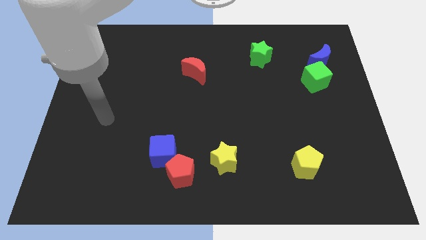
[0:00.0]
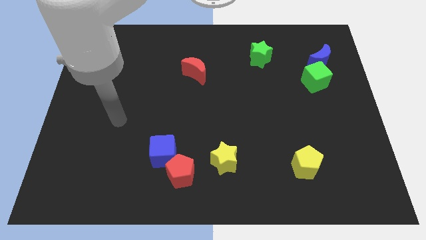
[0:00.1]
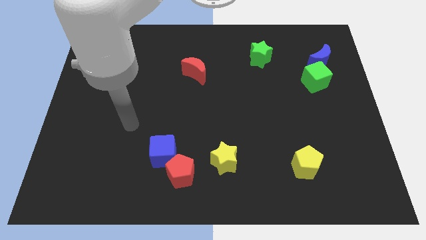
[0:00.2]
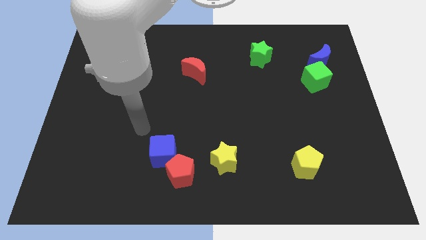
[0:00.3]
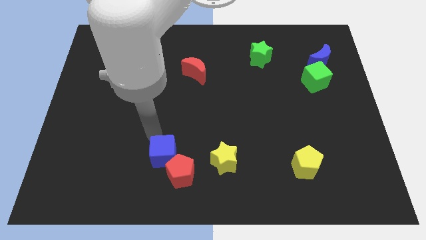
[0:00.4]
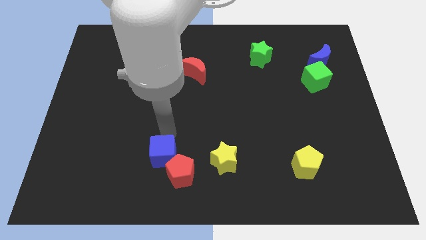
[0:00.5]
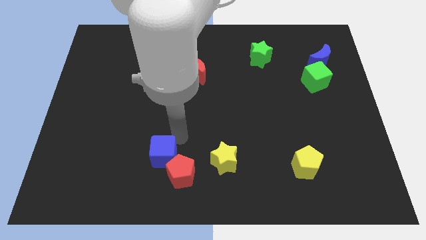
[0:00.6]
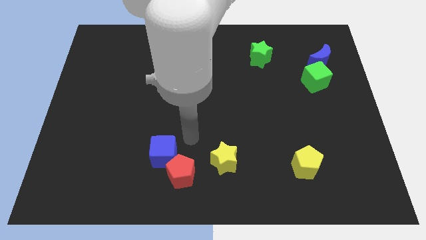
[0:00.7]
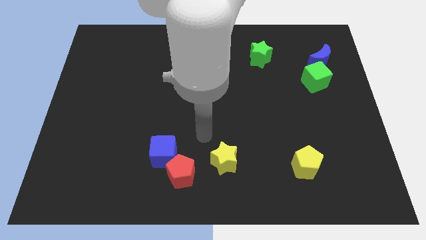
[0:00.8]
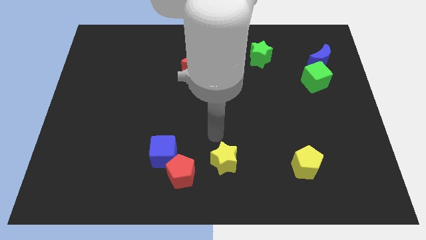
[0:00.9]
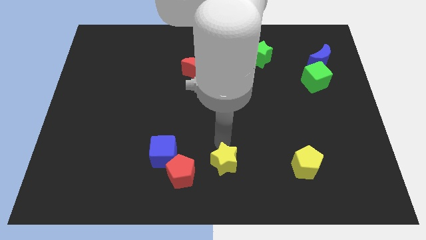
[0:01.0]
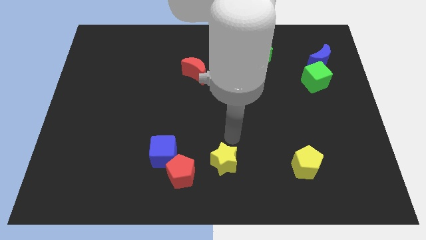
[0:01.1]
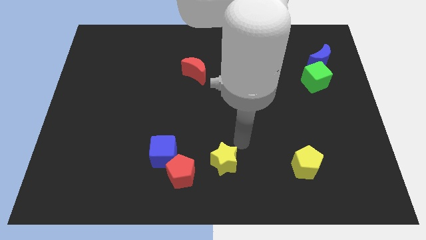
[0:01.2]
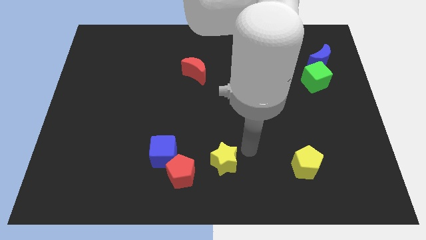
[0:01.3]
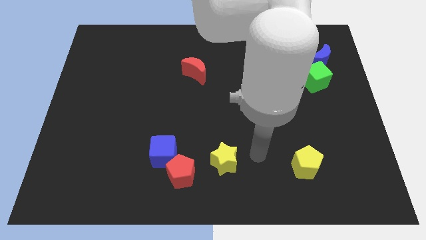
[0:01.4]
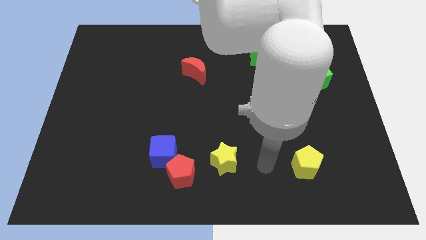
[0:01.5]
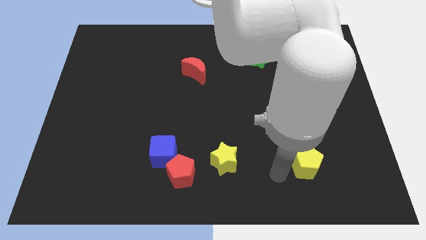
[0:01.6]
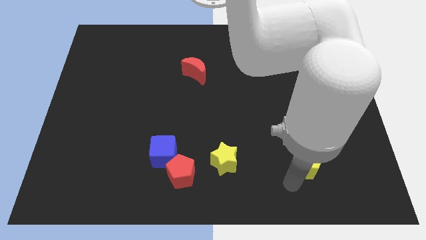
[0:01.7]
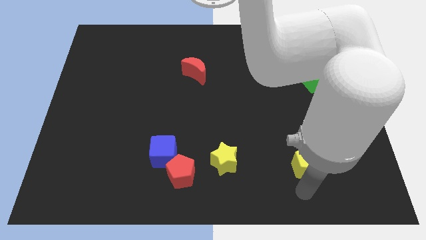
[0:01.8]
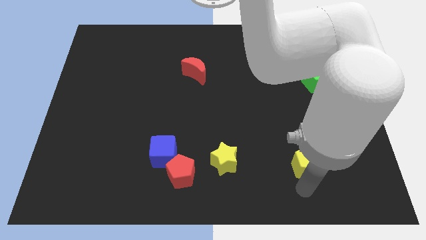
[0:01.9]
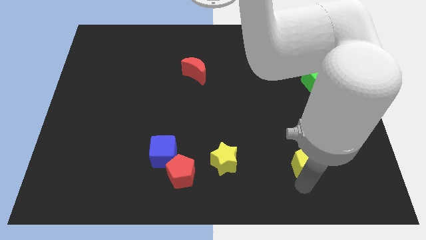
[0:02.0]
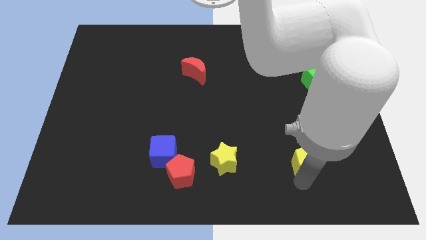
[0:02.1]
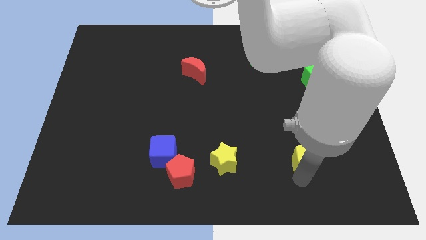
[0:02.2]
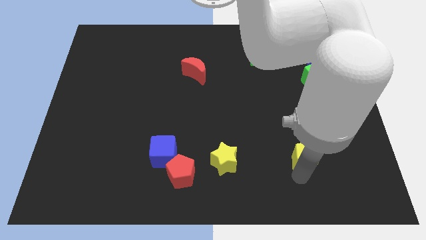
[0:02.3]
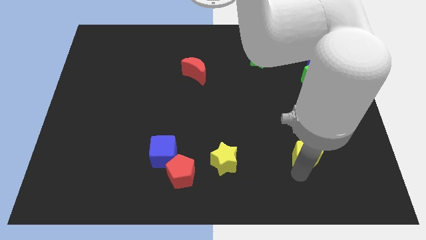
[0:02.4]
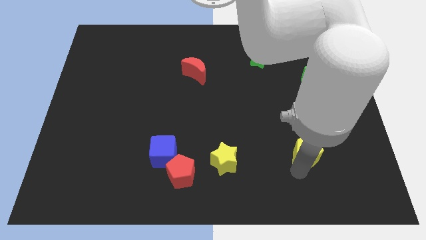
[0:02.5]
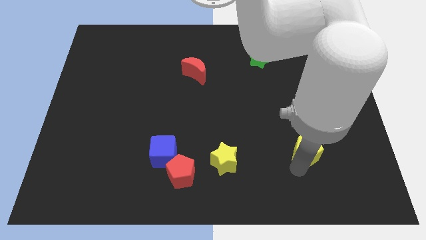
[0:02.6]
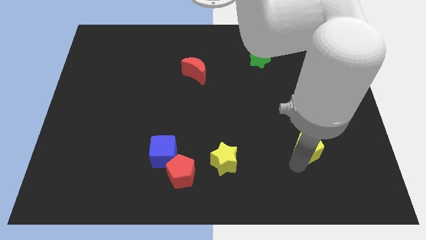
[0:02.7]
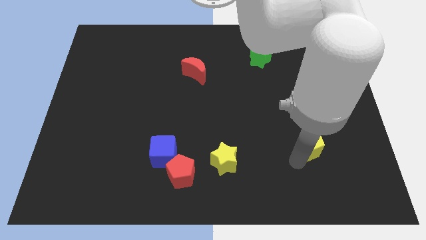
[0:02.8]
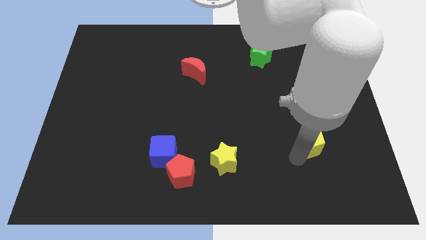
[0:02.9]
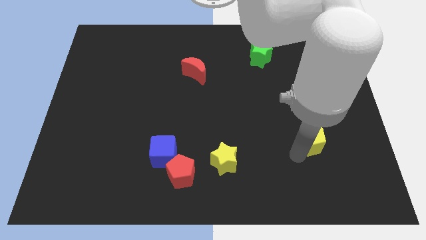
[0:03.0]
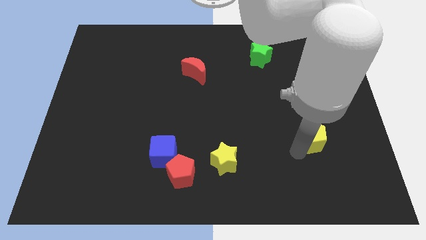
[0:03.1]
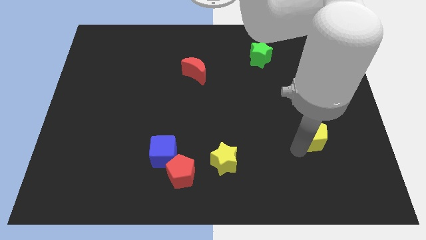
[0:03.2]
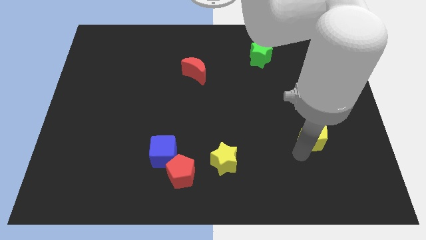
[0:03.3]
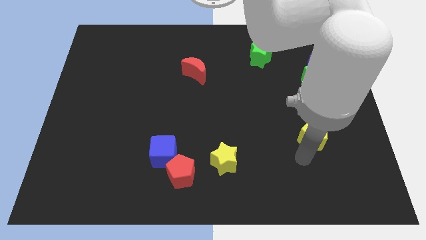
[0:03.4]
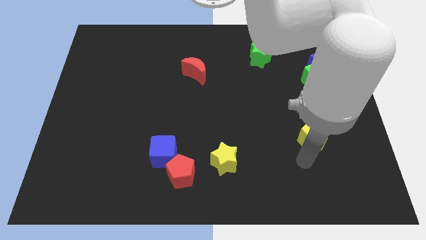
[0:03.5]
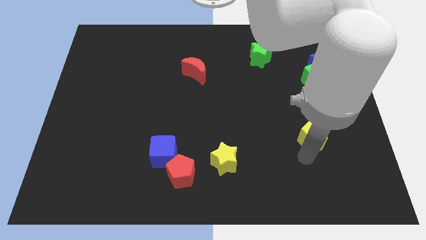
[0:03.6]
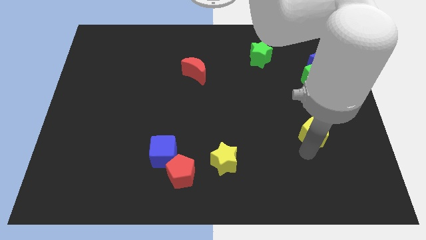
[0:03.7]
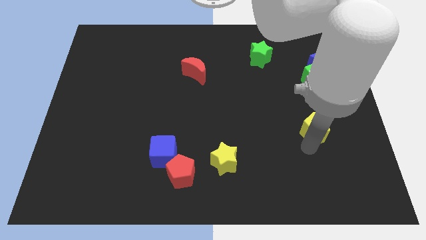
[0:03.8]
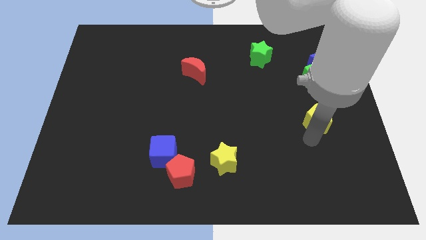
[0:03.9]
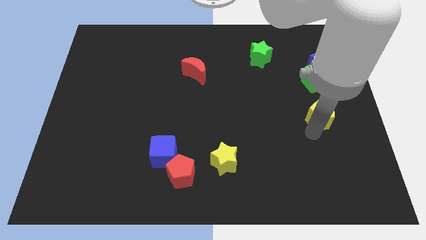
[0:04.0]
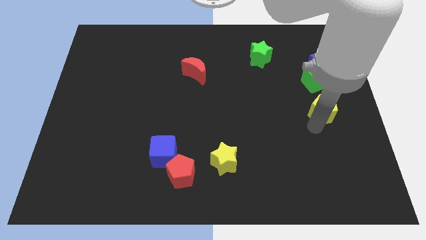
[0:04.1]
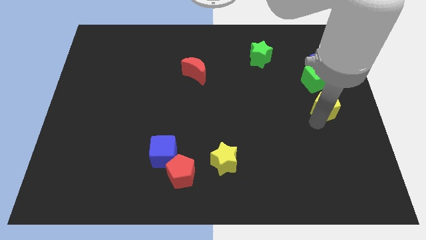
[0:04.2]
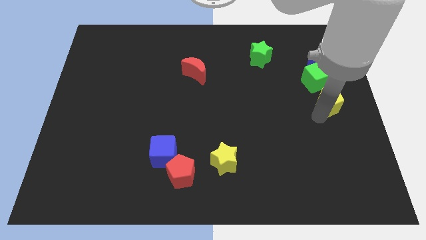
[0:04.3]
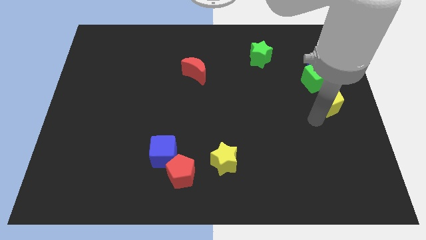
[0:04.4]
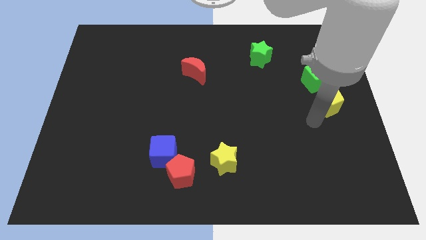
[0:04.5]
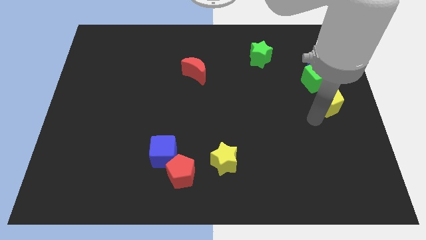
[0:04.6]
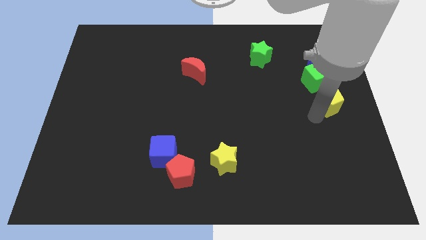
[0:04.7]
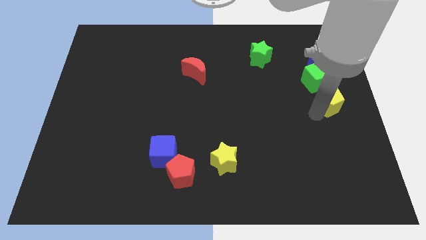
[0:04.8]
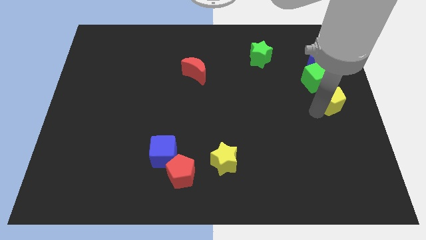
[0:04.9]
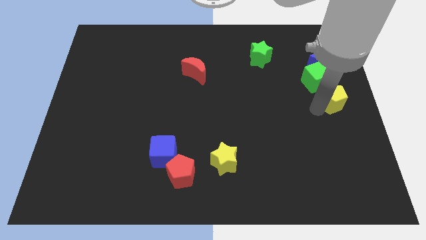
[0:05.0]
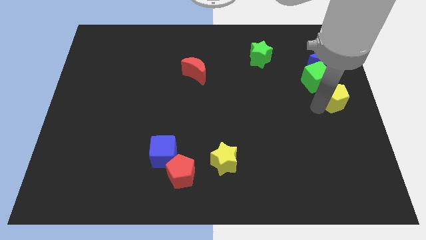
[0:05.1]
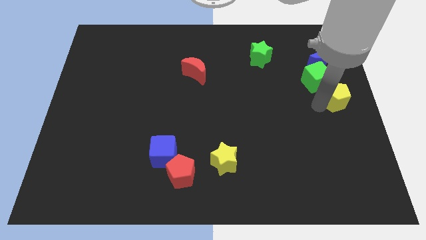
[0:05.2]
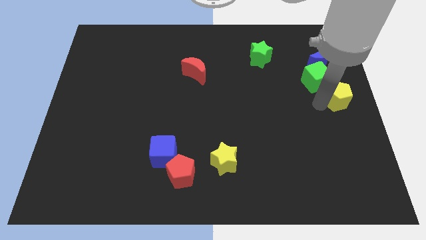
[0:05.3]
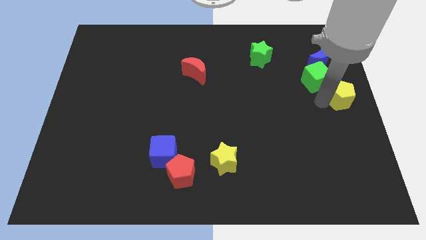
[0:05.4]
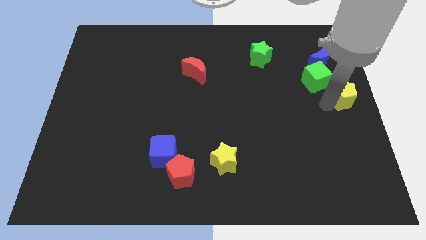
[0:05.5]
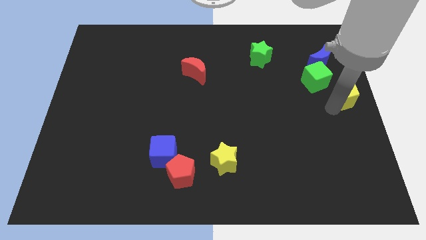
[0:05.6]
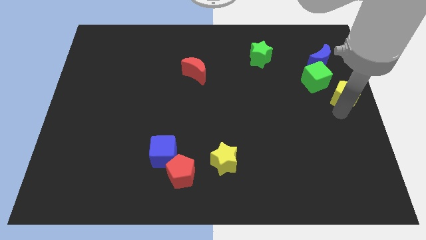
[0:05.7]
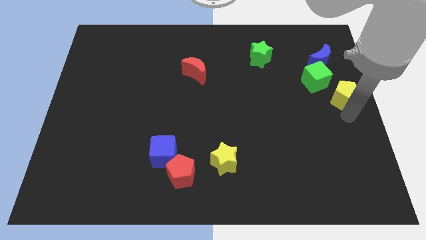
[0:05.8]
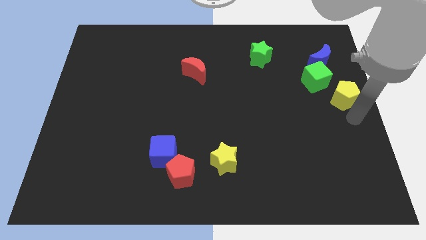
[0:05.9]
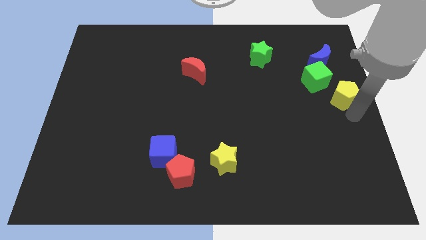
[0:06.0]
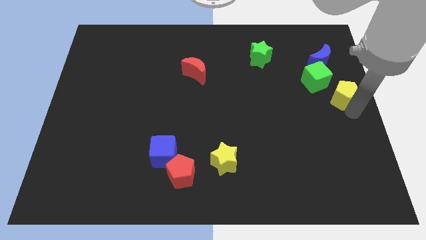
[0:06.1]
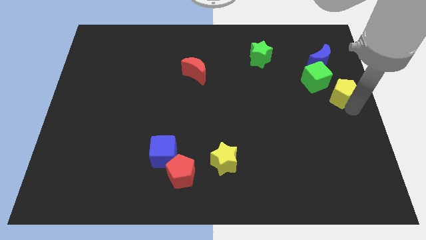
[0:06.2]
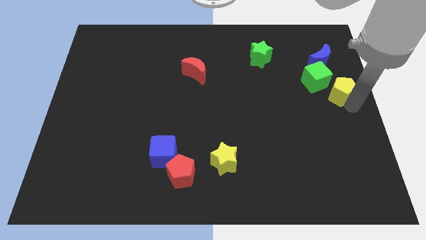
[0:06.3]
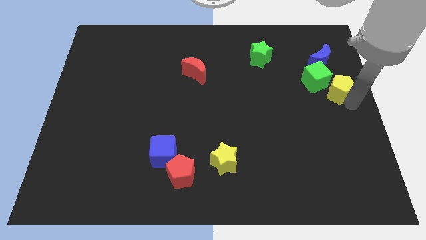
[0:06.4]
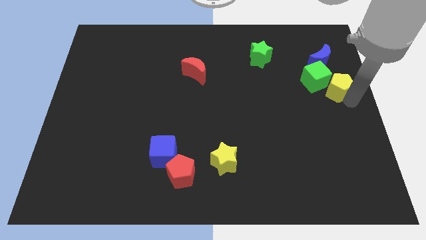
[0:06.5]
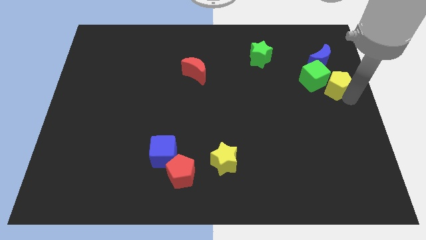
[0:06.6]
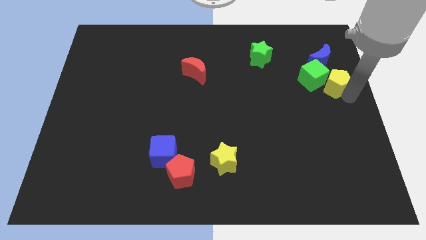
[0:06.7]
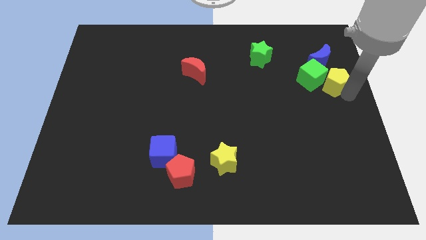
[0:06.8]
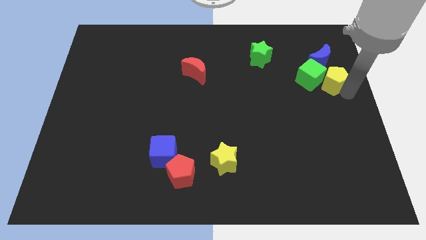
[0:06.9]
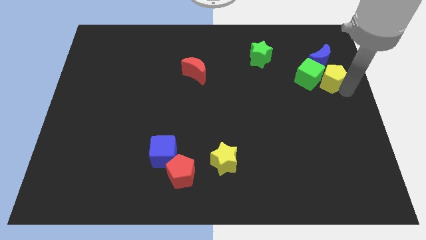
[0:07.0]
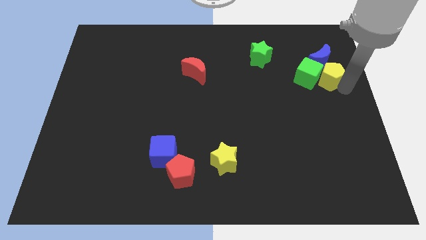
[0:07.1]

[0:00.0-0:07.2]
slide the yellow pentagon to the blue moon
